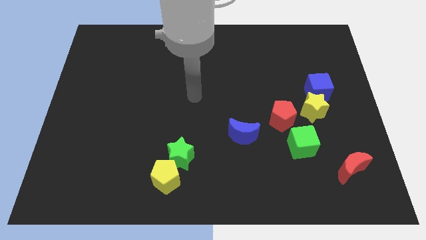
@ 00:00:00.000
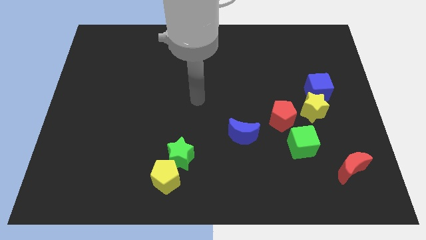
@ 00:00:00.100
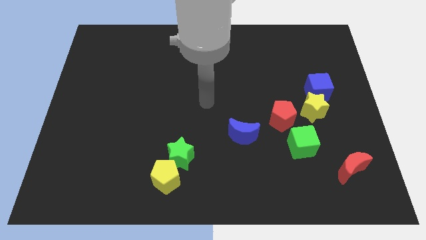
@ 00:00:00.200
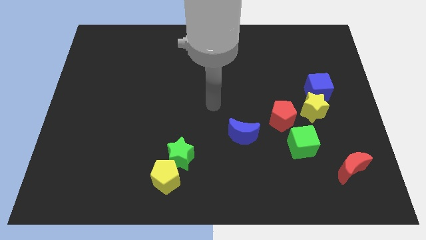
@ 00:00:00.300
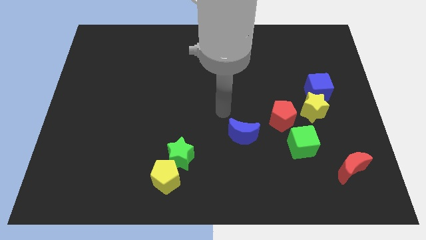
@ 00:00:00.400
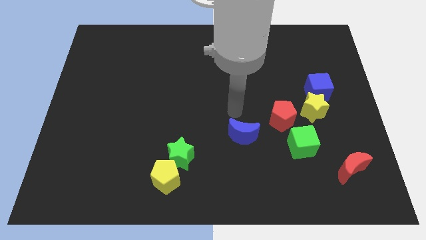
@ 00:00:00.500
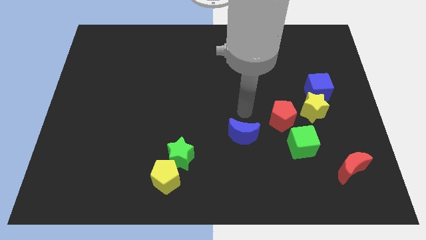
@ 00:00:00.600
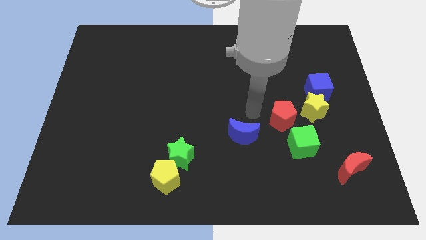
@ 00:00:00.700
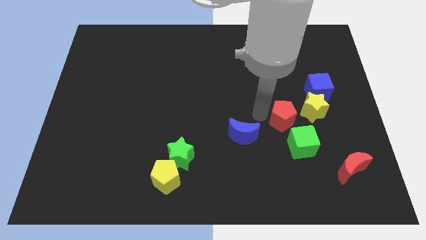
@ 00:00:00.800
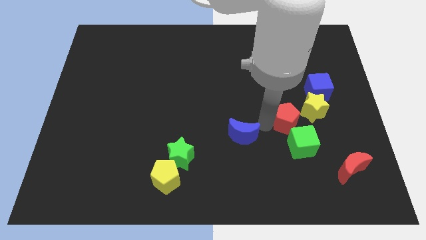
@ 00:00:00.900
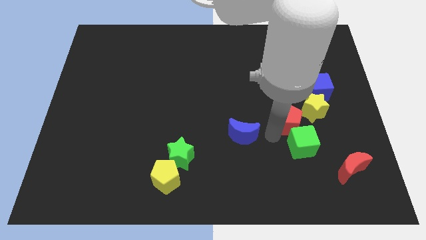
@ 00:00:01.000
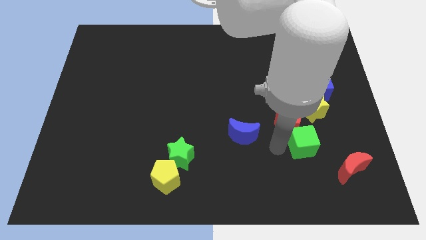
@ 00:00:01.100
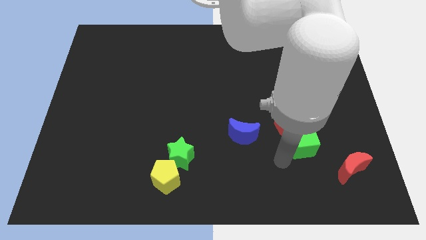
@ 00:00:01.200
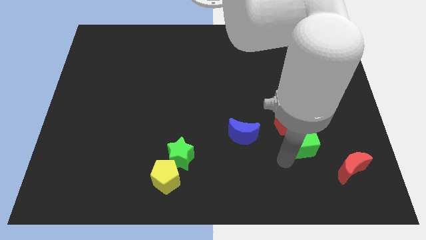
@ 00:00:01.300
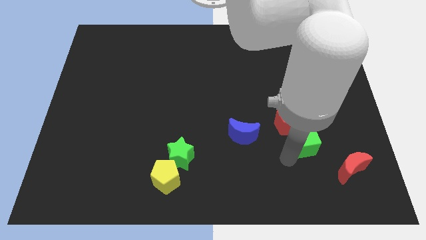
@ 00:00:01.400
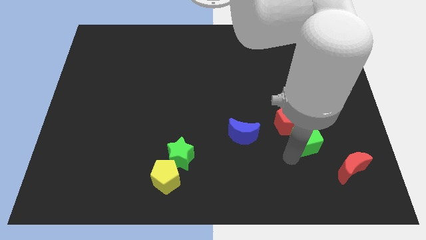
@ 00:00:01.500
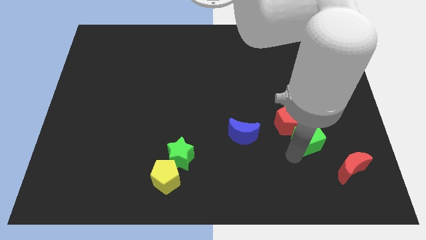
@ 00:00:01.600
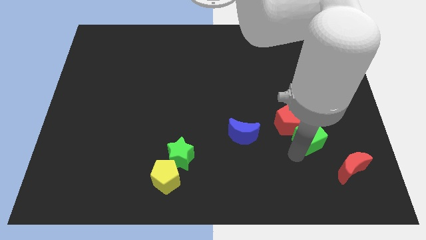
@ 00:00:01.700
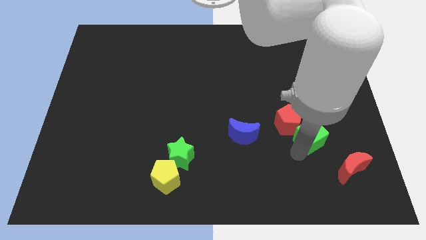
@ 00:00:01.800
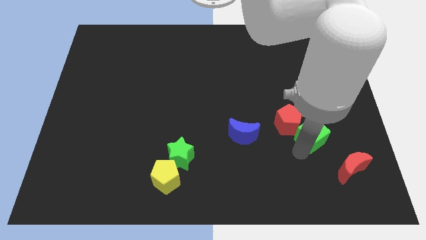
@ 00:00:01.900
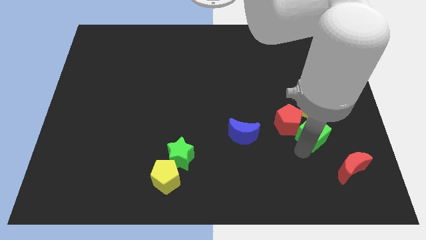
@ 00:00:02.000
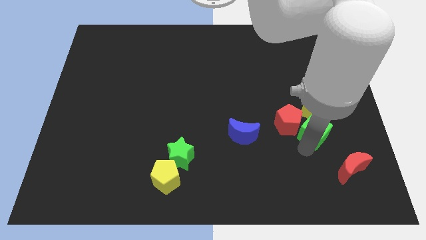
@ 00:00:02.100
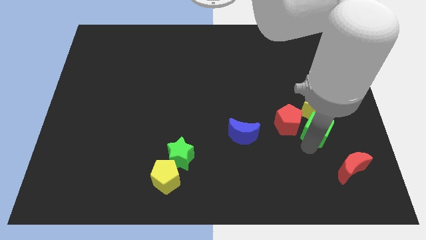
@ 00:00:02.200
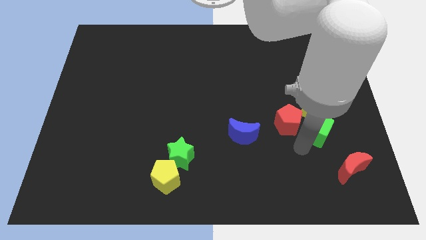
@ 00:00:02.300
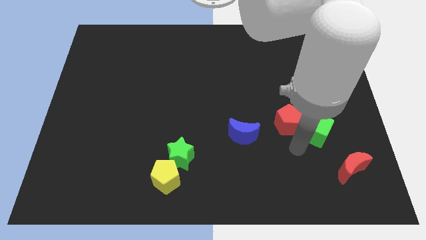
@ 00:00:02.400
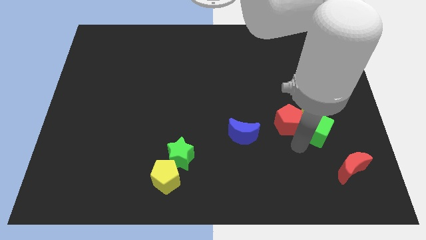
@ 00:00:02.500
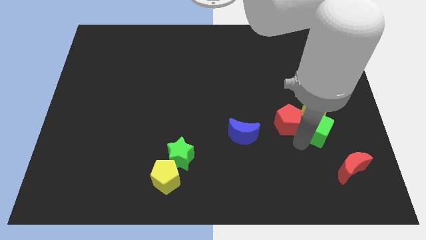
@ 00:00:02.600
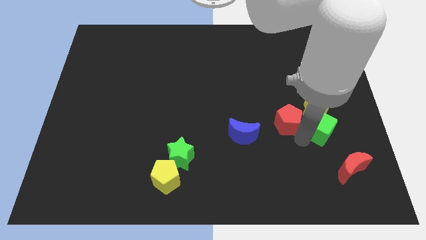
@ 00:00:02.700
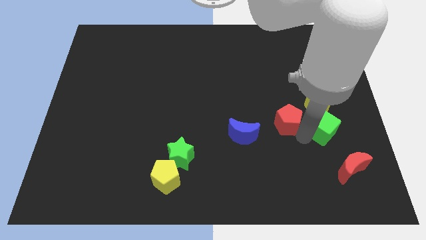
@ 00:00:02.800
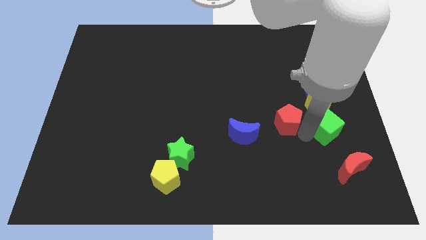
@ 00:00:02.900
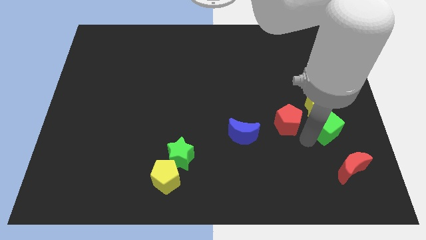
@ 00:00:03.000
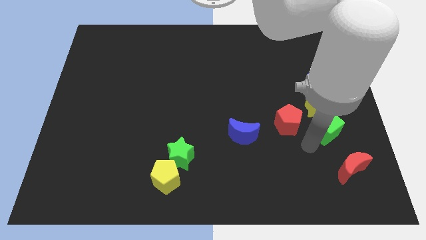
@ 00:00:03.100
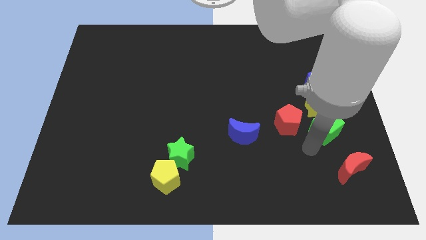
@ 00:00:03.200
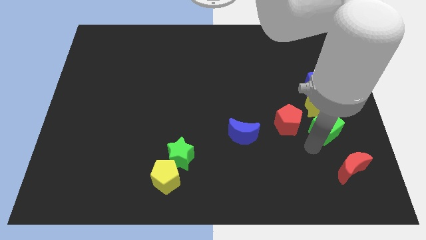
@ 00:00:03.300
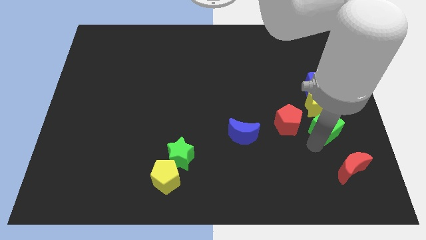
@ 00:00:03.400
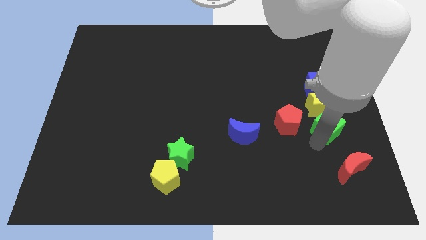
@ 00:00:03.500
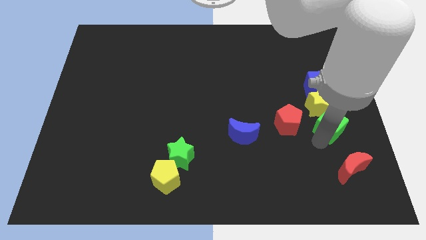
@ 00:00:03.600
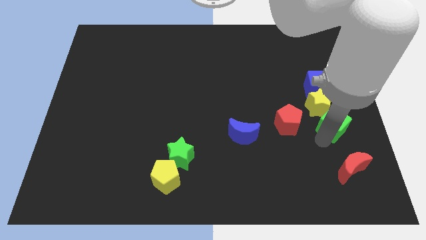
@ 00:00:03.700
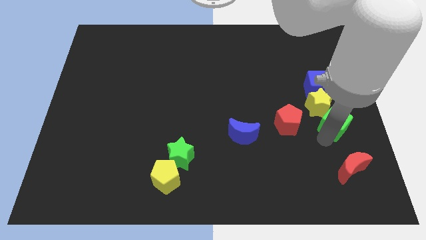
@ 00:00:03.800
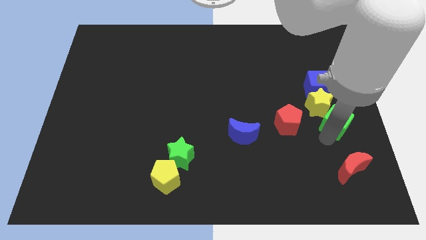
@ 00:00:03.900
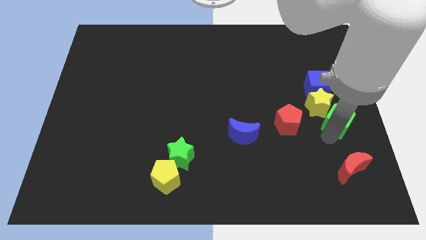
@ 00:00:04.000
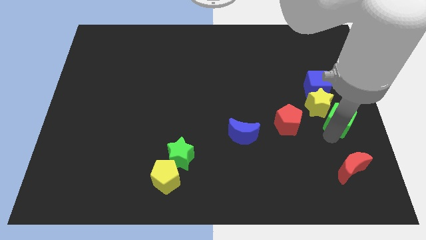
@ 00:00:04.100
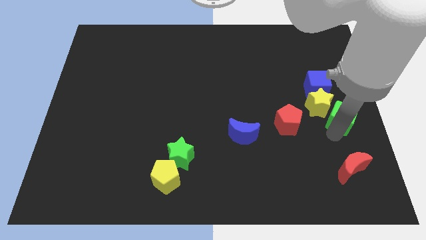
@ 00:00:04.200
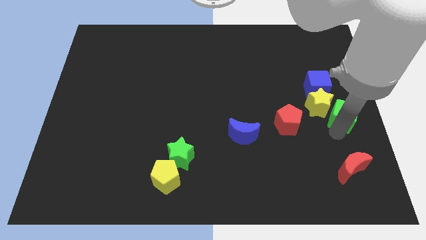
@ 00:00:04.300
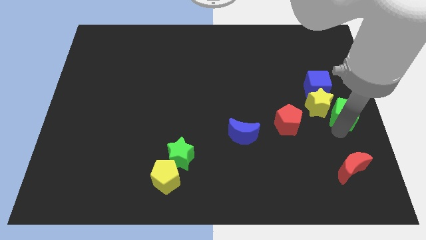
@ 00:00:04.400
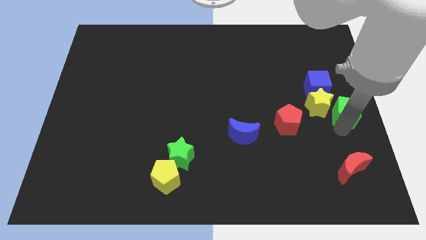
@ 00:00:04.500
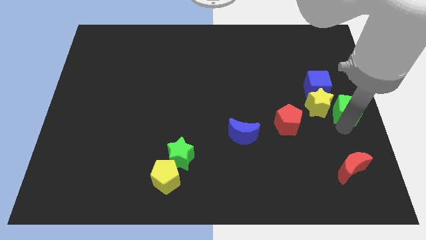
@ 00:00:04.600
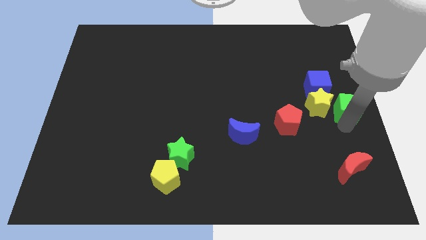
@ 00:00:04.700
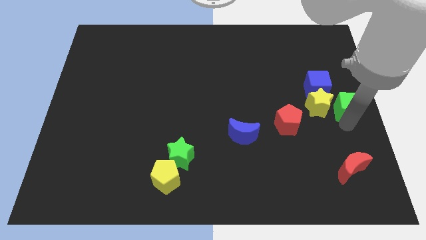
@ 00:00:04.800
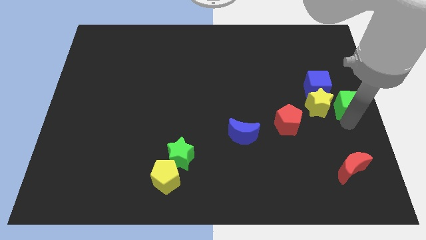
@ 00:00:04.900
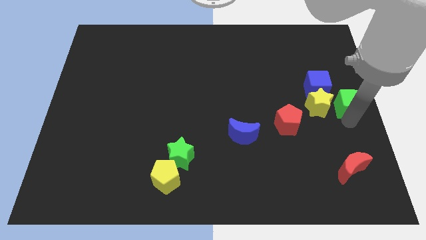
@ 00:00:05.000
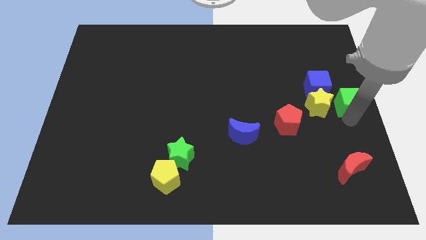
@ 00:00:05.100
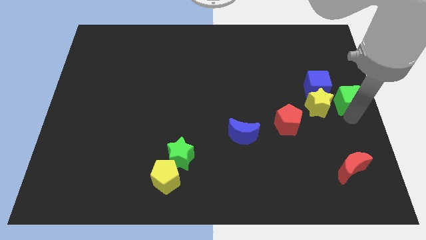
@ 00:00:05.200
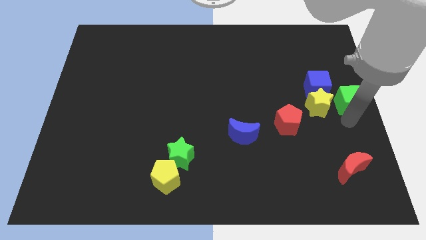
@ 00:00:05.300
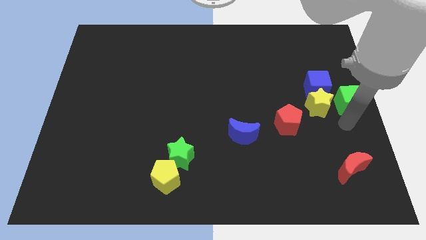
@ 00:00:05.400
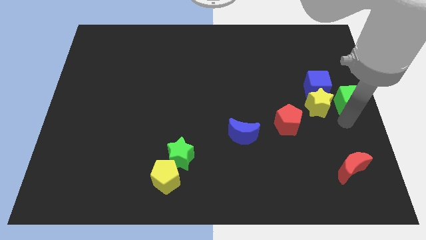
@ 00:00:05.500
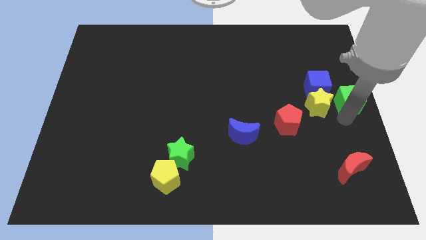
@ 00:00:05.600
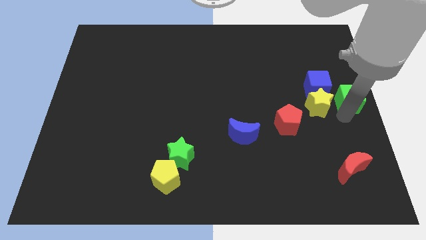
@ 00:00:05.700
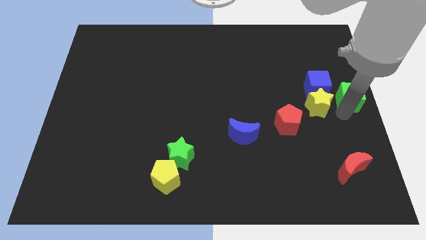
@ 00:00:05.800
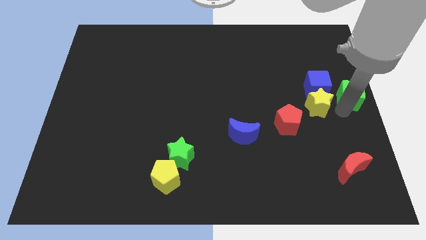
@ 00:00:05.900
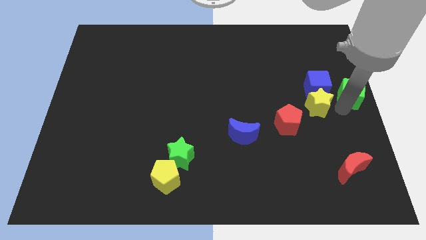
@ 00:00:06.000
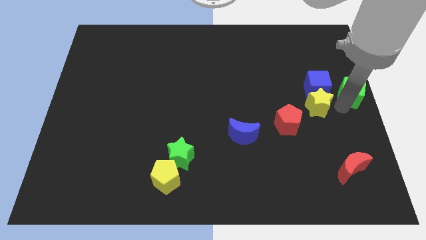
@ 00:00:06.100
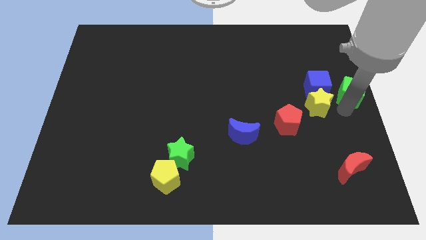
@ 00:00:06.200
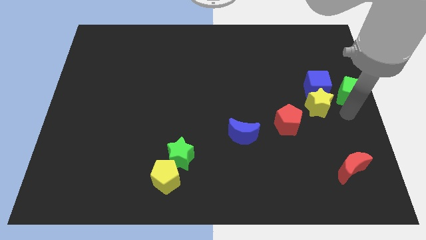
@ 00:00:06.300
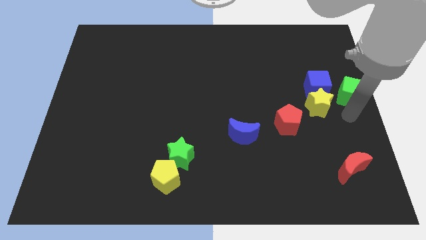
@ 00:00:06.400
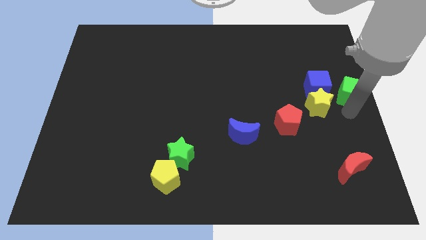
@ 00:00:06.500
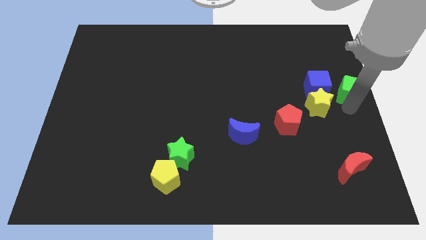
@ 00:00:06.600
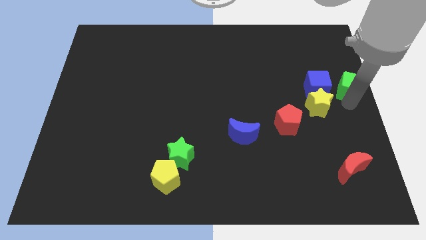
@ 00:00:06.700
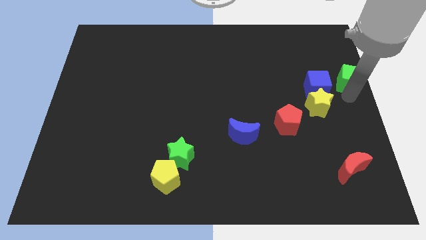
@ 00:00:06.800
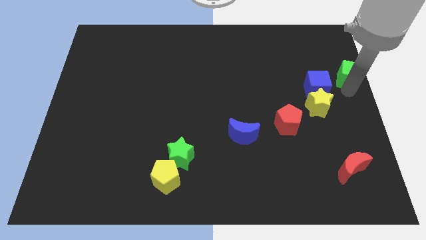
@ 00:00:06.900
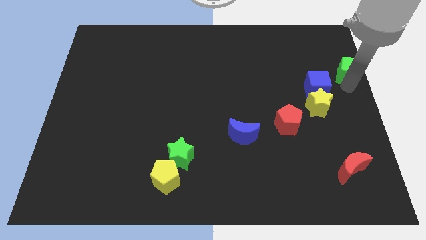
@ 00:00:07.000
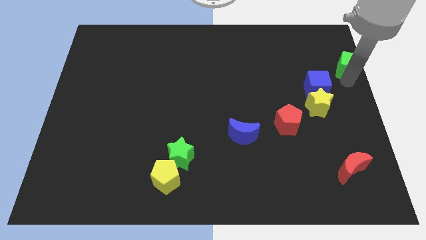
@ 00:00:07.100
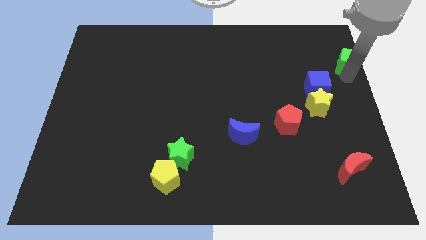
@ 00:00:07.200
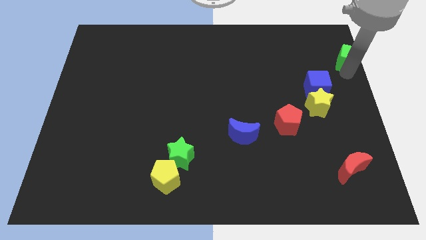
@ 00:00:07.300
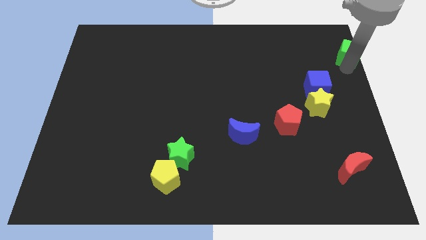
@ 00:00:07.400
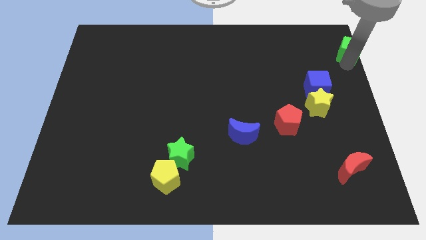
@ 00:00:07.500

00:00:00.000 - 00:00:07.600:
put the green cube to the top right
